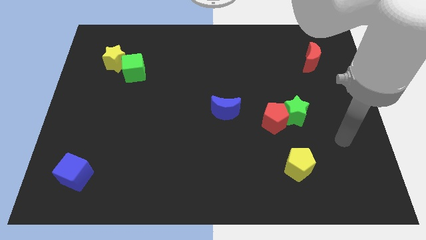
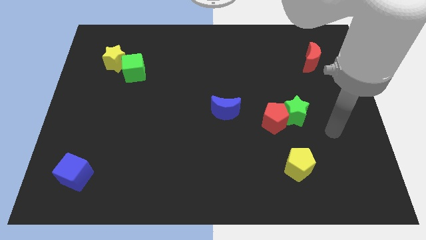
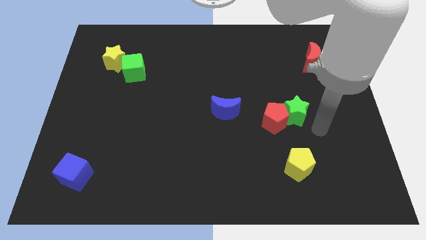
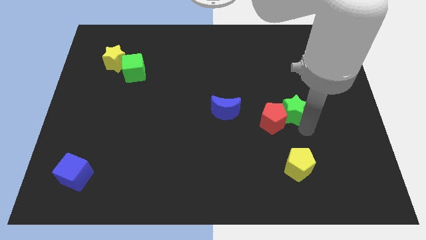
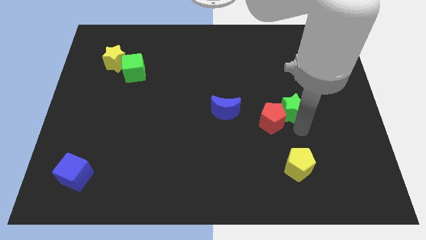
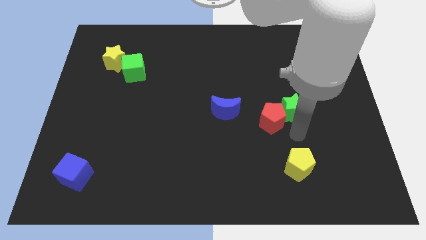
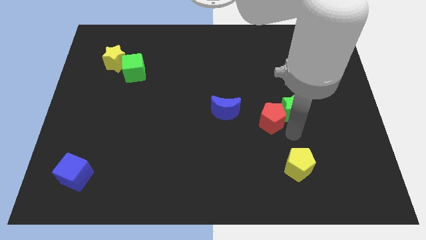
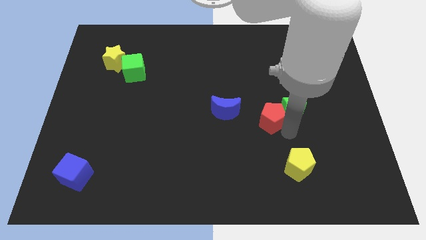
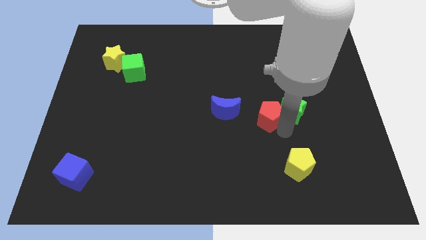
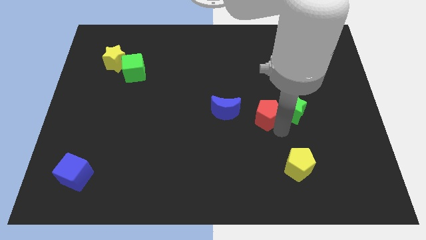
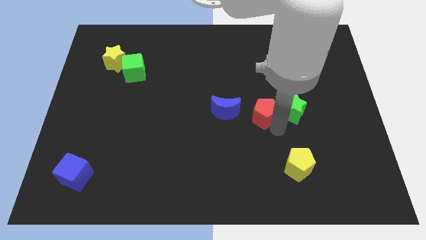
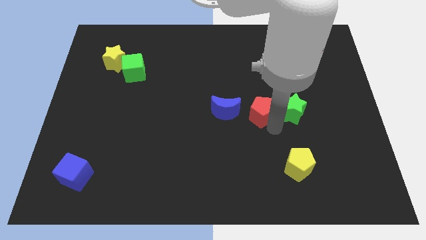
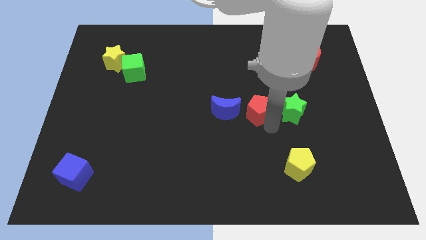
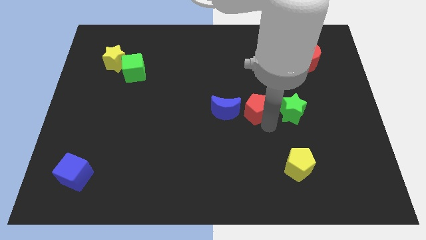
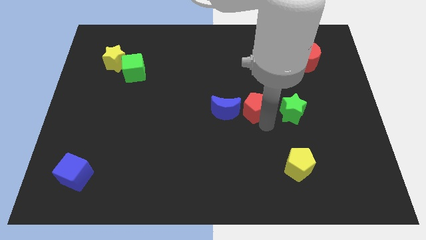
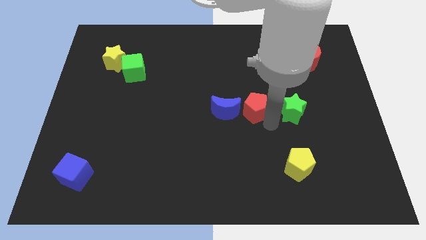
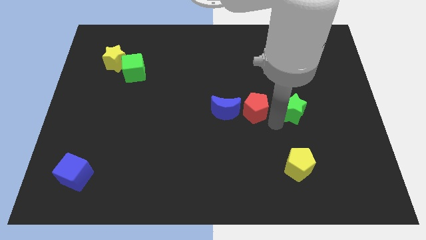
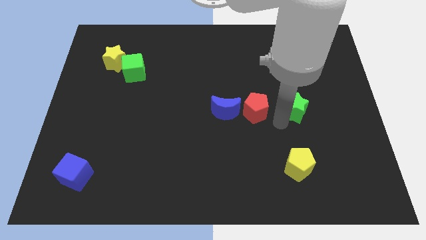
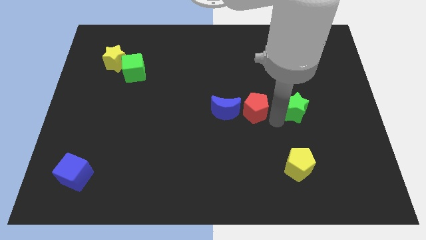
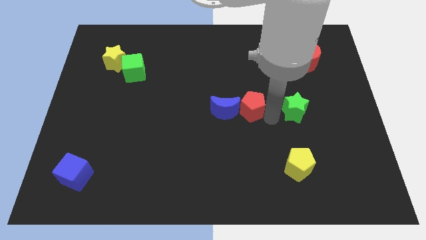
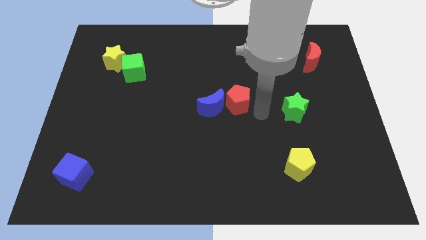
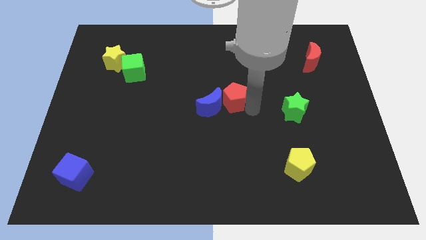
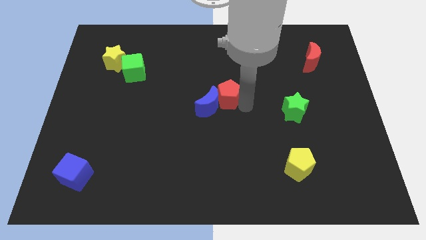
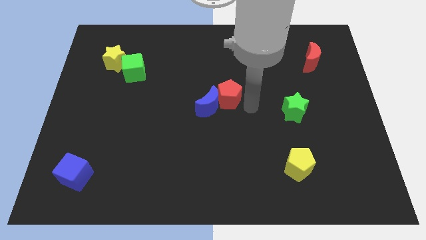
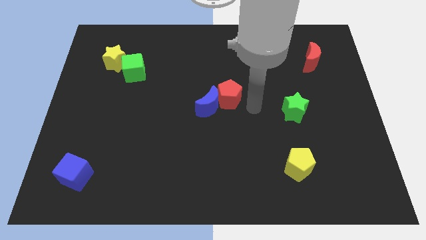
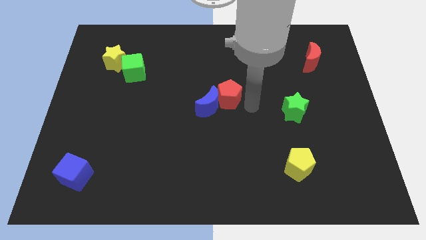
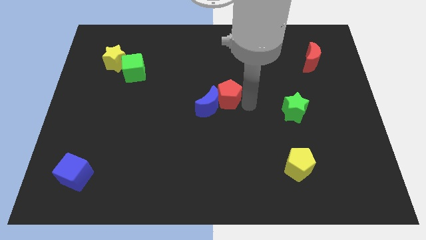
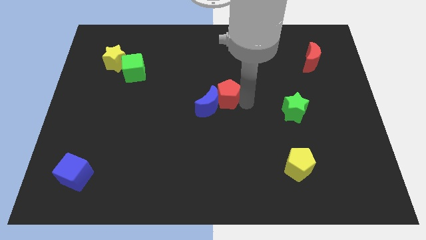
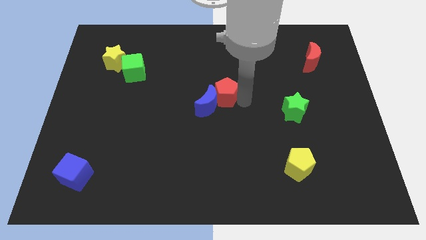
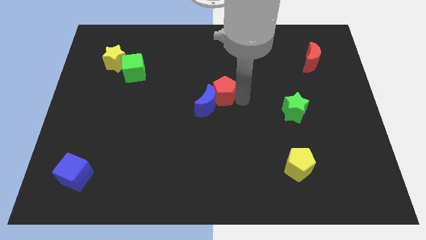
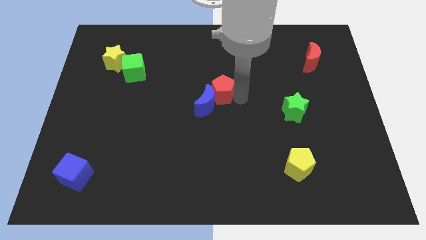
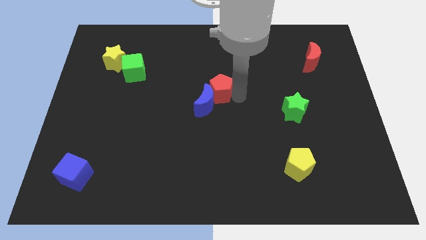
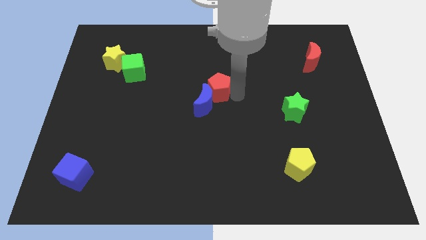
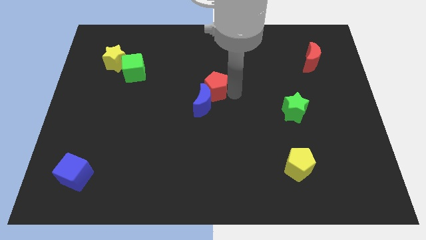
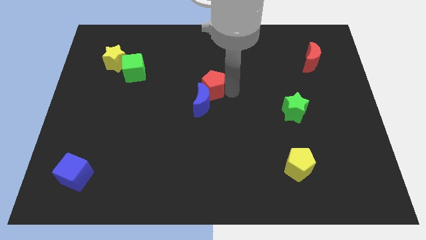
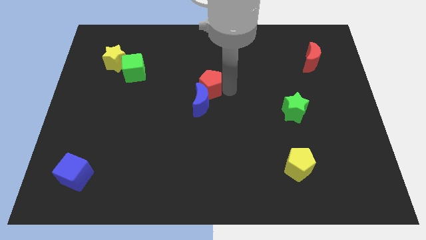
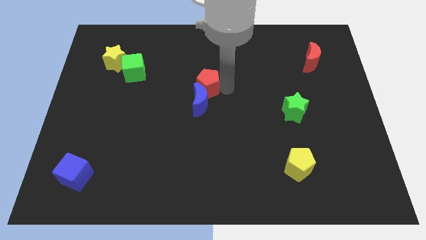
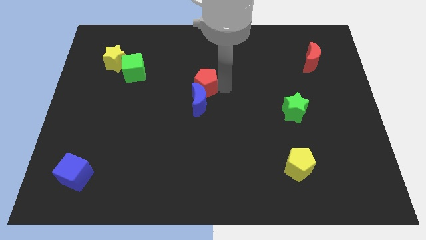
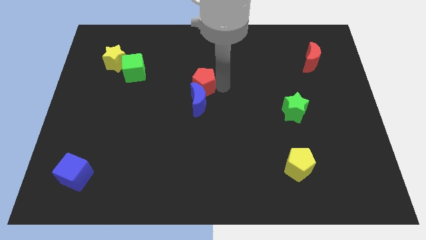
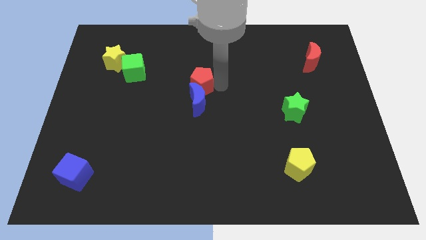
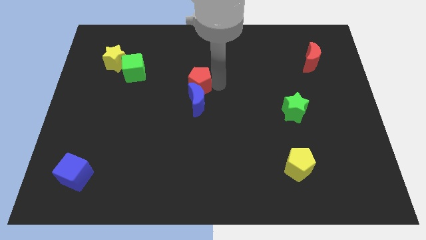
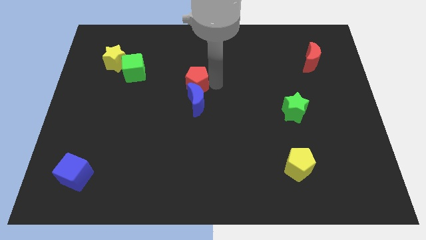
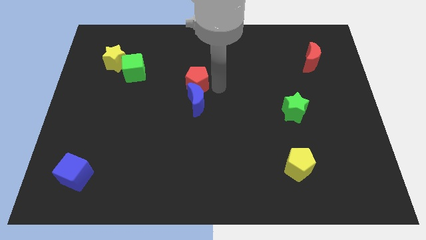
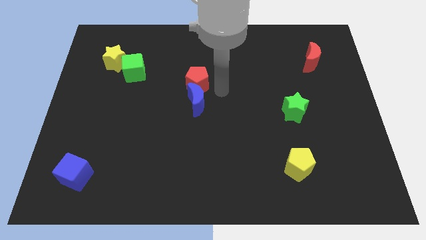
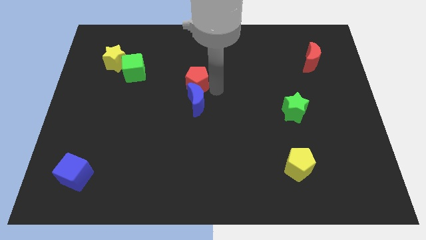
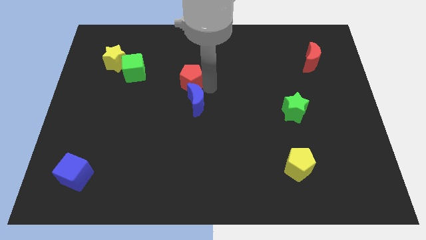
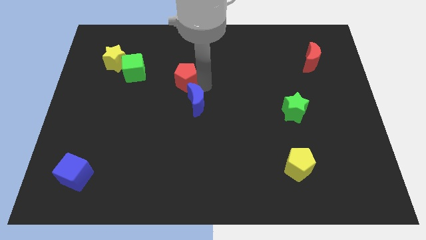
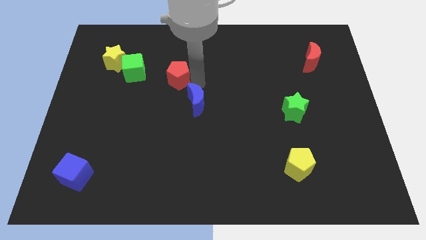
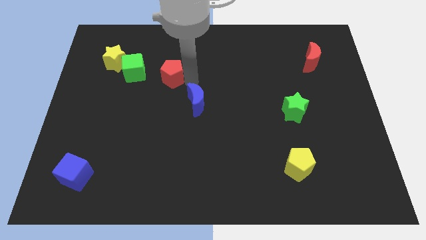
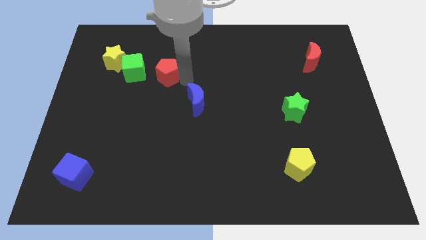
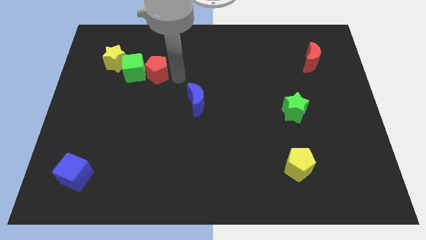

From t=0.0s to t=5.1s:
put the red pentagon next to the green cube

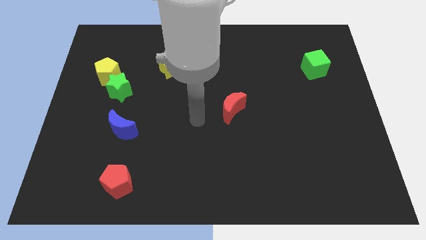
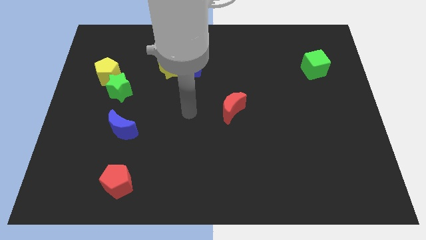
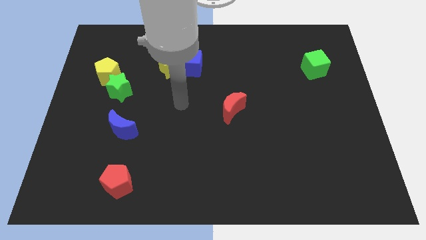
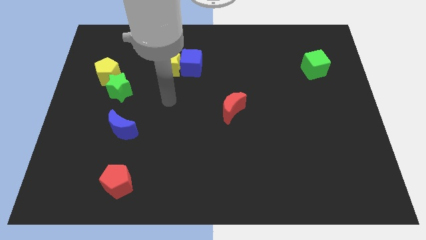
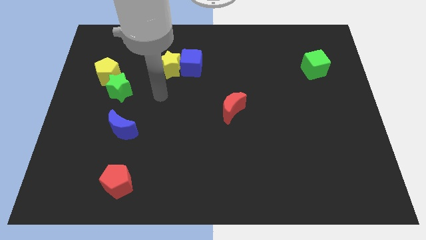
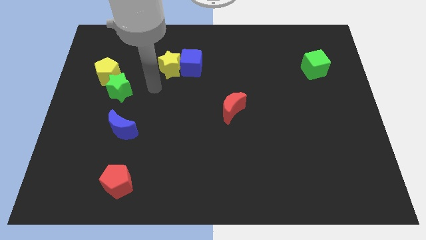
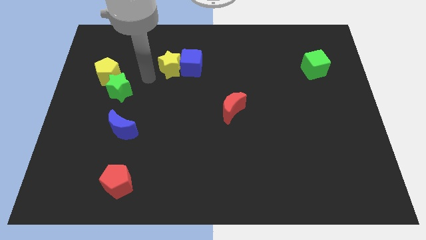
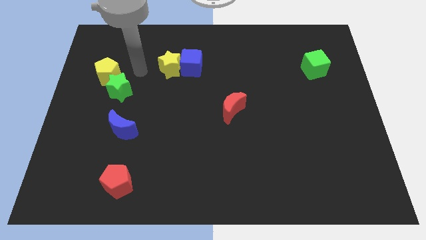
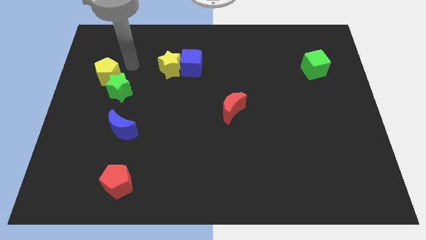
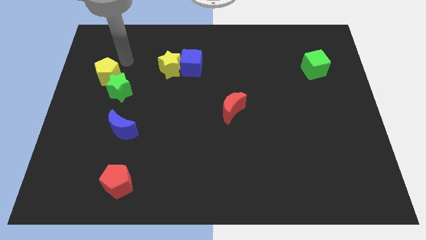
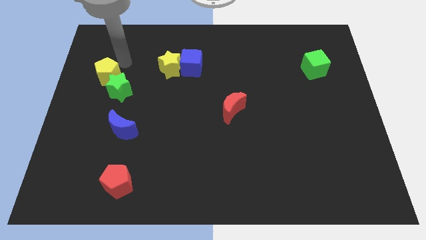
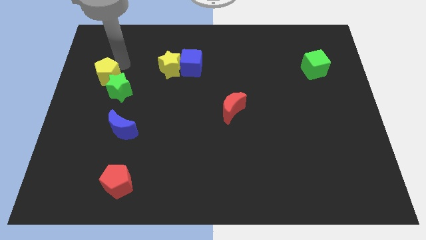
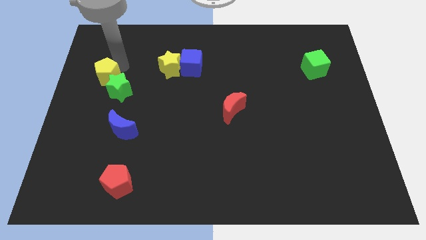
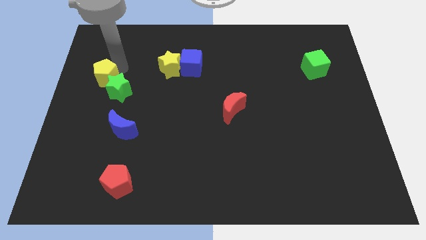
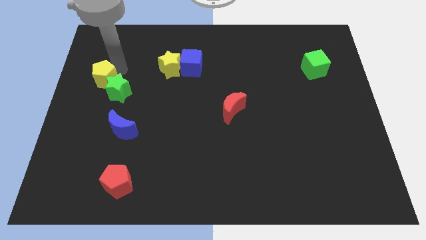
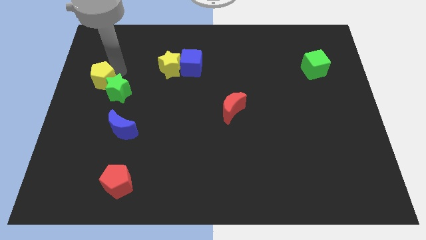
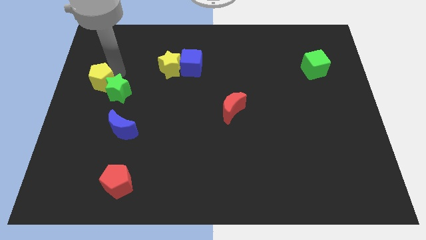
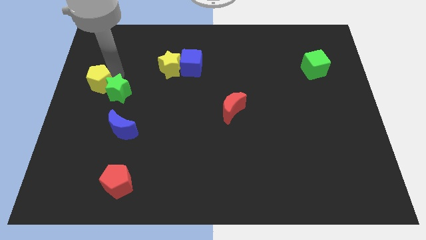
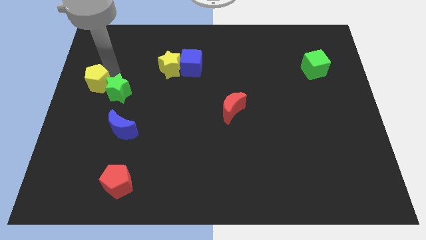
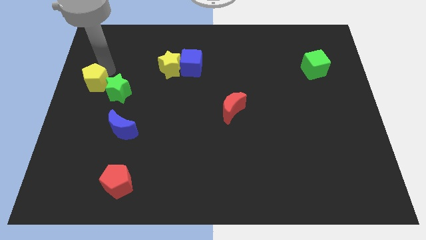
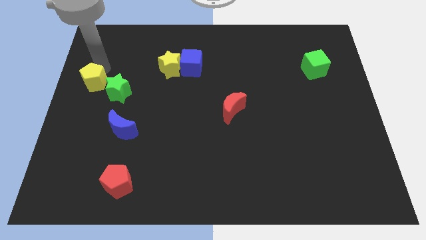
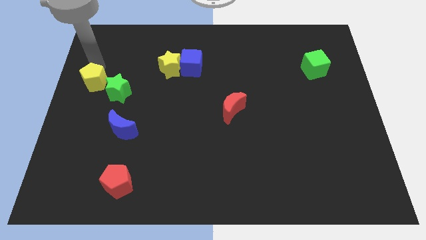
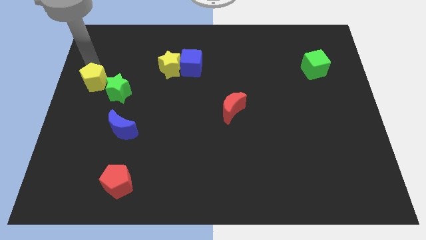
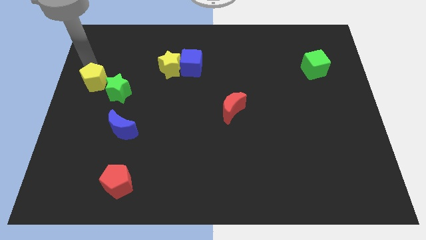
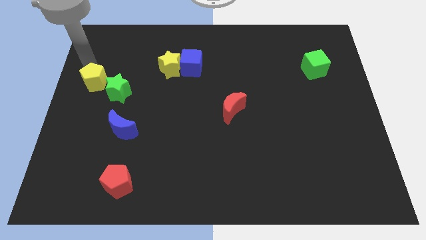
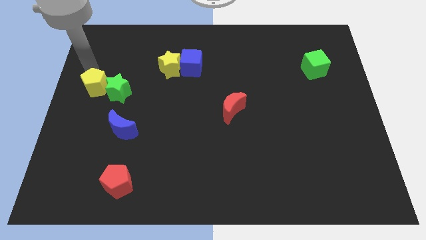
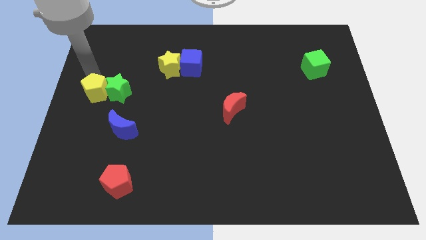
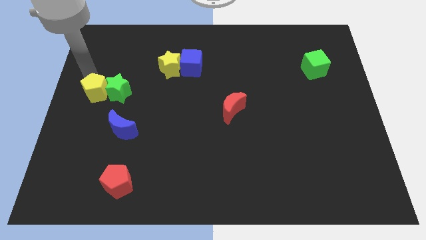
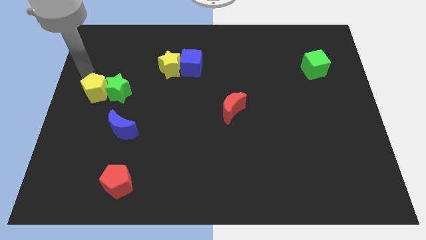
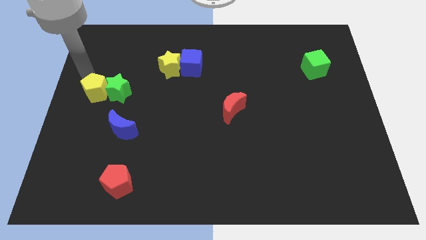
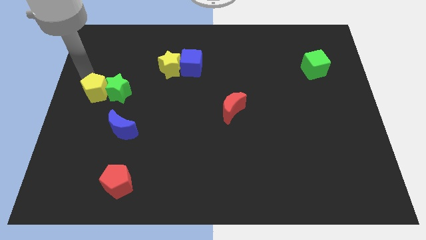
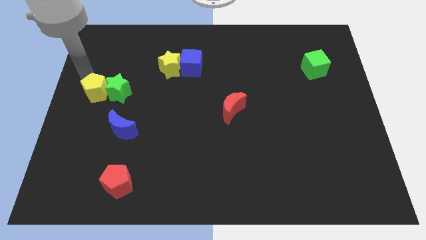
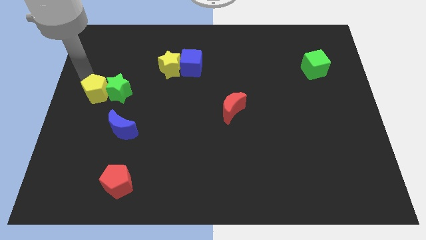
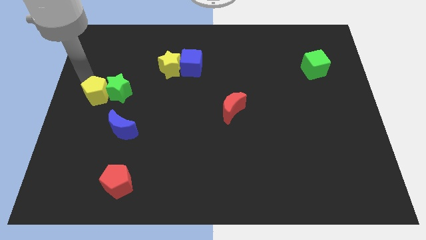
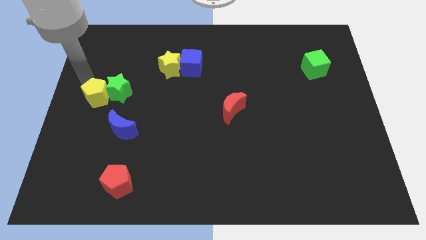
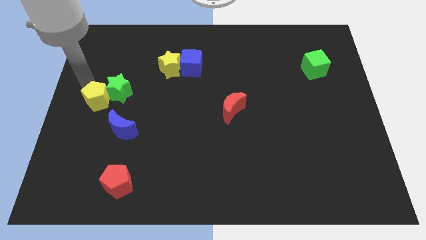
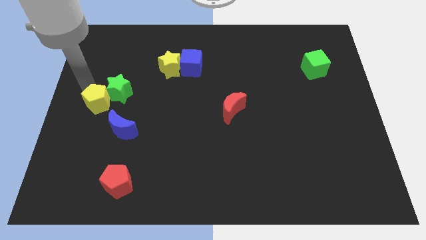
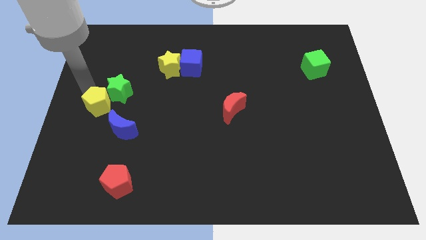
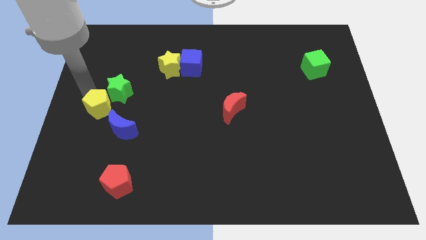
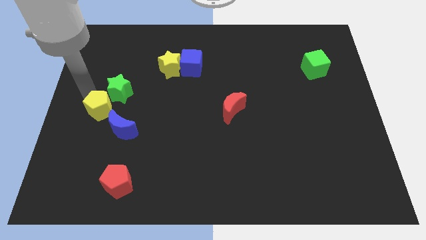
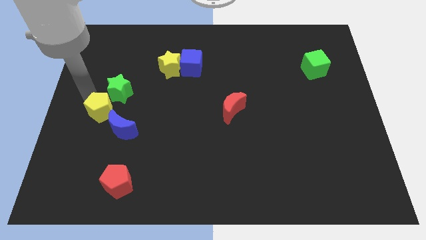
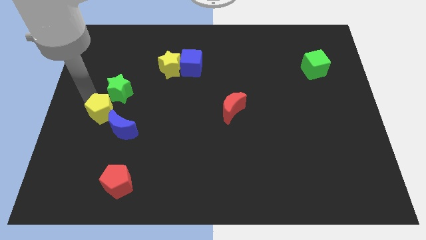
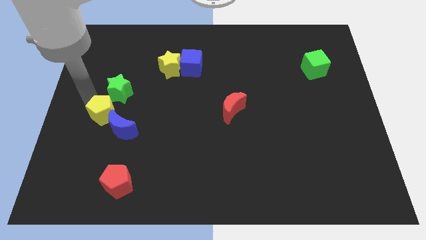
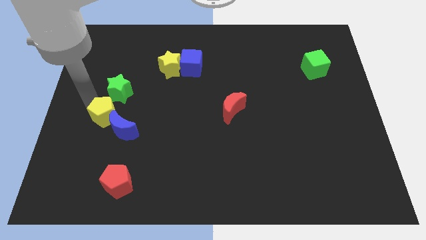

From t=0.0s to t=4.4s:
slide the yellow pentagon to the blue moon
